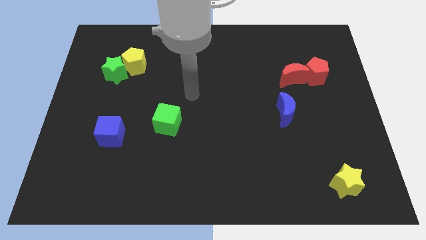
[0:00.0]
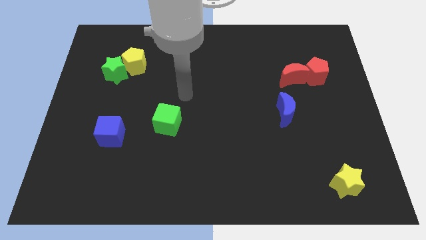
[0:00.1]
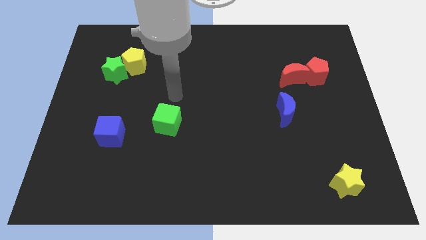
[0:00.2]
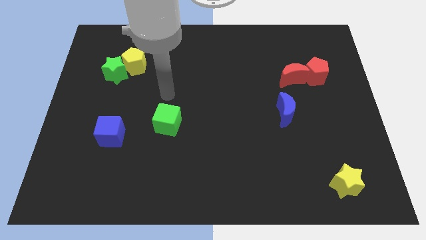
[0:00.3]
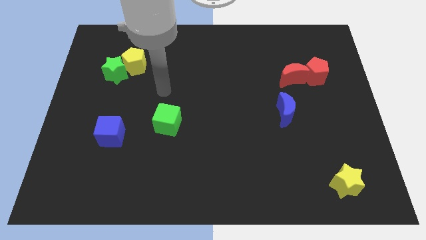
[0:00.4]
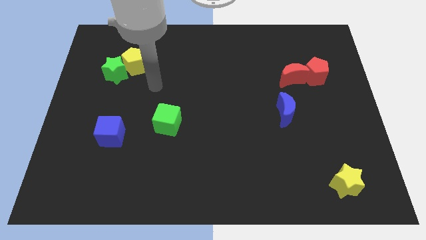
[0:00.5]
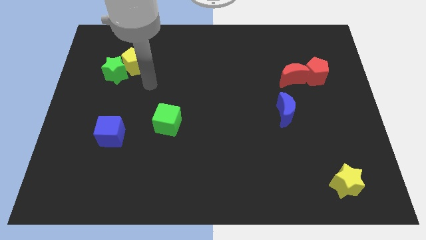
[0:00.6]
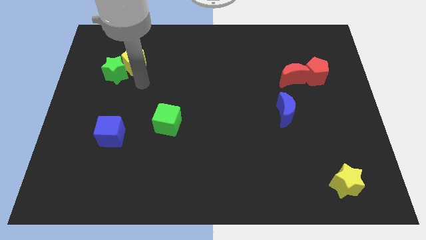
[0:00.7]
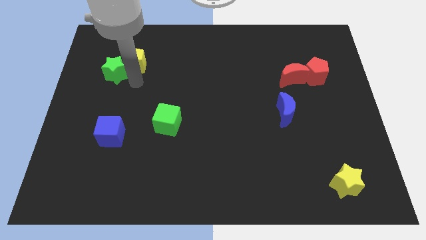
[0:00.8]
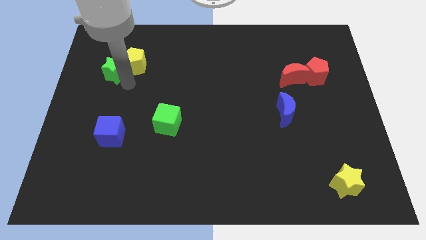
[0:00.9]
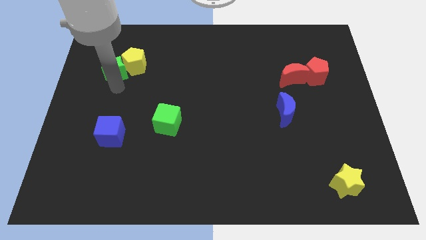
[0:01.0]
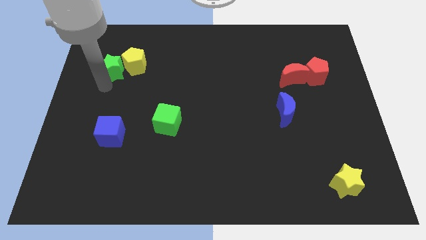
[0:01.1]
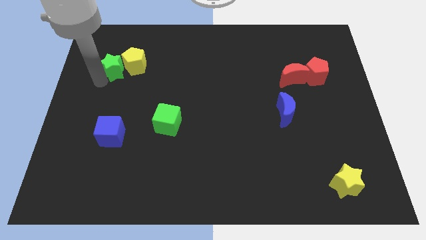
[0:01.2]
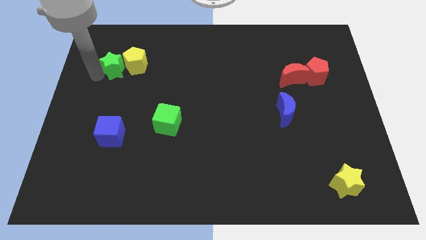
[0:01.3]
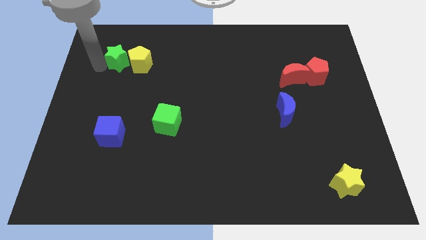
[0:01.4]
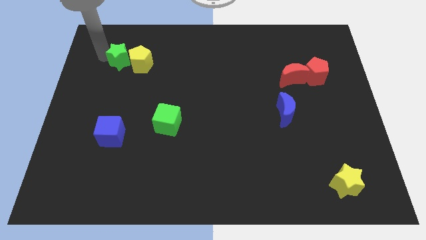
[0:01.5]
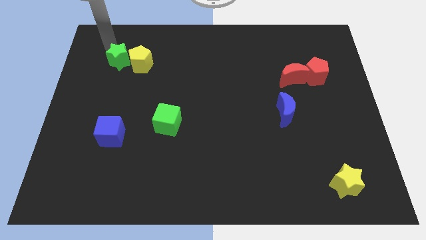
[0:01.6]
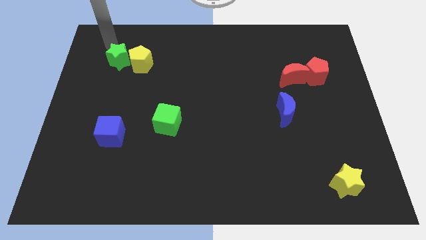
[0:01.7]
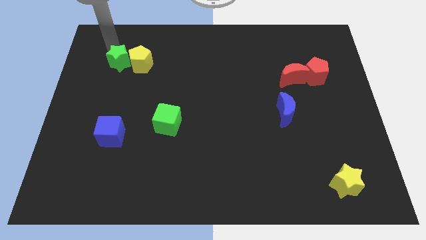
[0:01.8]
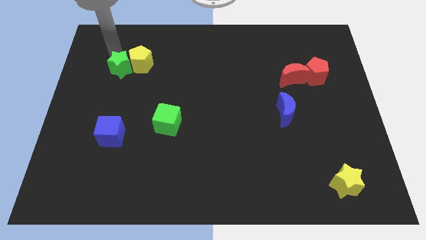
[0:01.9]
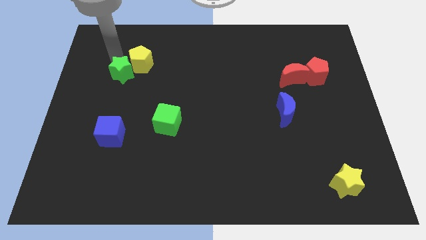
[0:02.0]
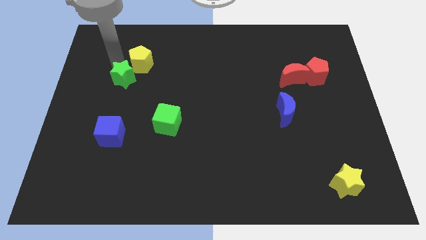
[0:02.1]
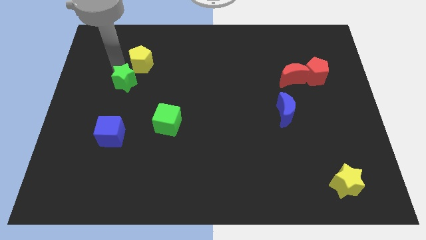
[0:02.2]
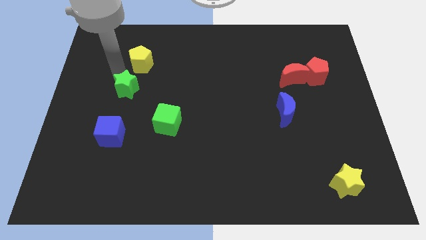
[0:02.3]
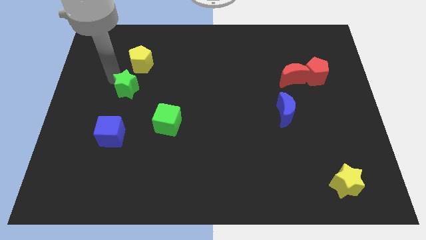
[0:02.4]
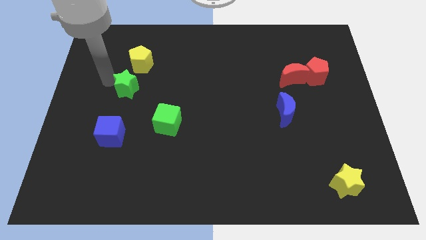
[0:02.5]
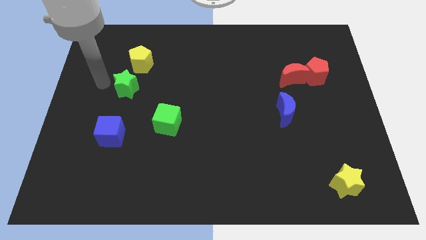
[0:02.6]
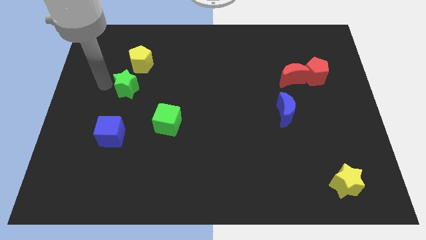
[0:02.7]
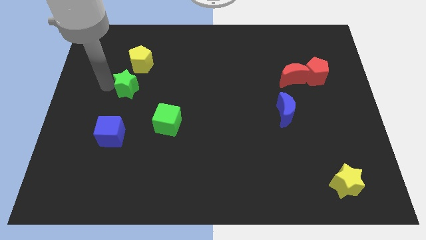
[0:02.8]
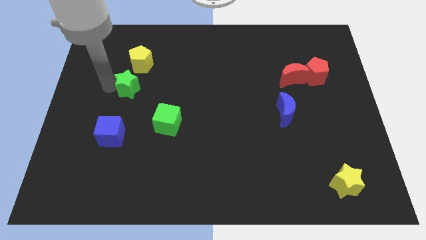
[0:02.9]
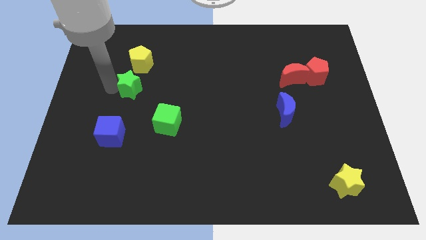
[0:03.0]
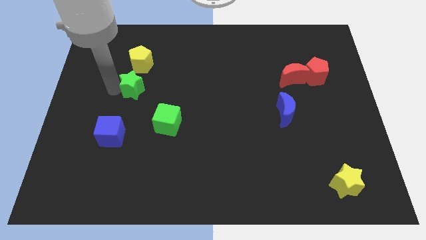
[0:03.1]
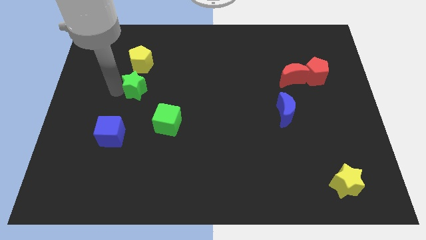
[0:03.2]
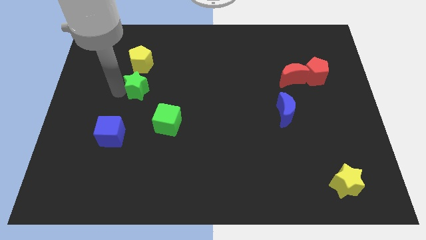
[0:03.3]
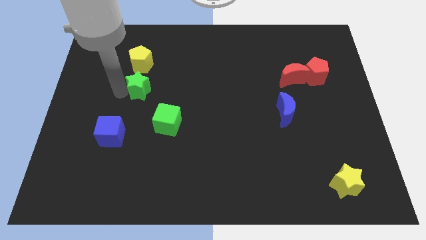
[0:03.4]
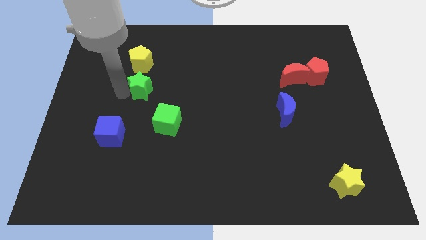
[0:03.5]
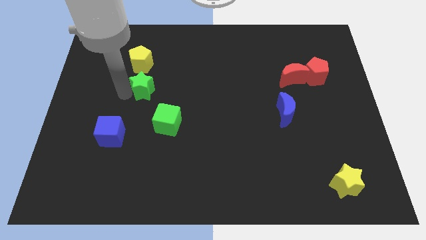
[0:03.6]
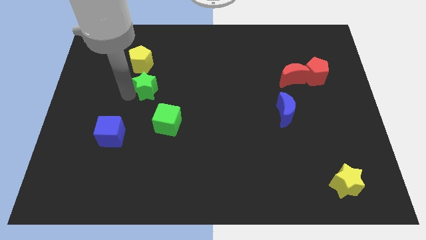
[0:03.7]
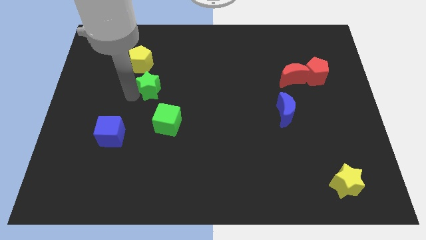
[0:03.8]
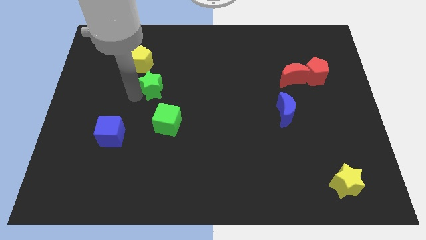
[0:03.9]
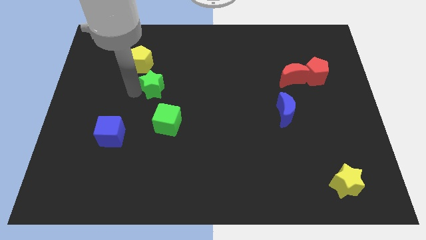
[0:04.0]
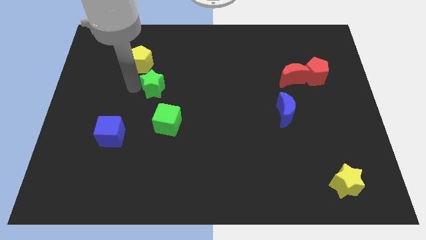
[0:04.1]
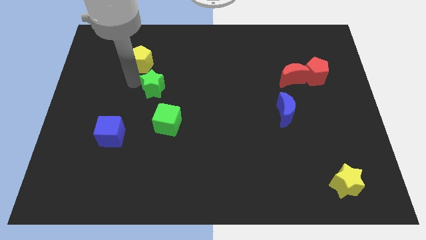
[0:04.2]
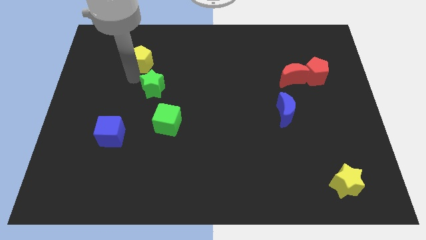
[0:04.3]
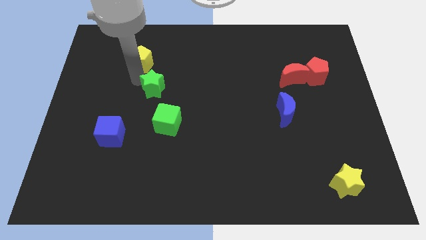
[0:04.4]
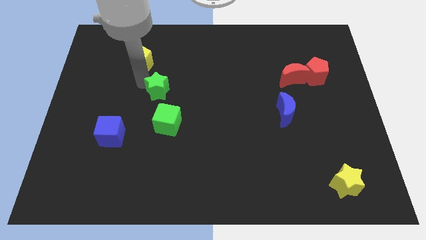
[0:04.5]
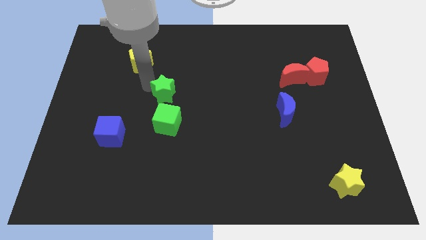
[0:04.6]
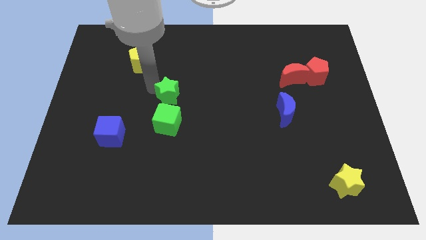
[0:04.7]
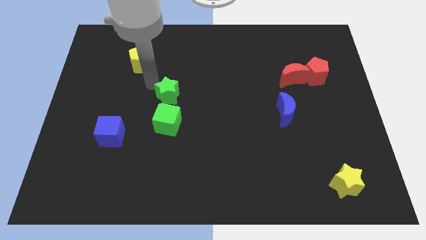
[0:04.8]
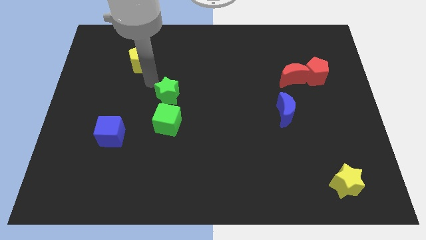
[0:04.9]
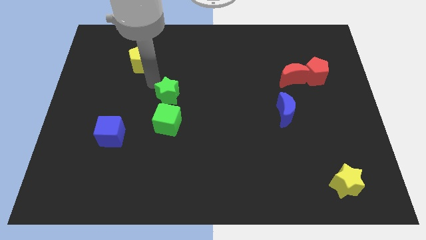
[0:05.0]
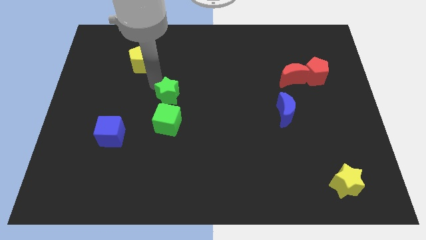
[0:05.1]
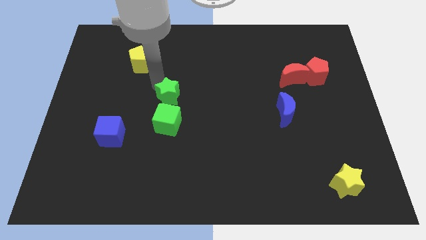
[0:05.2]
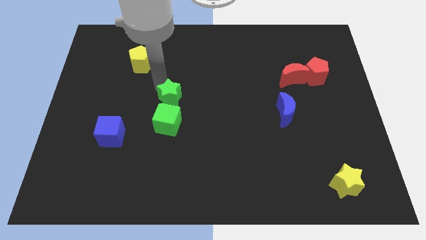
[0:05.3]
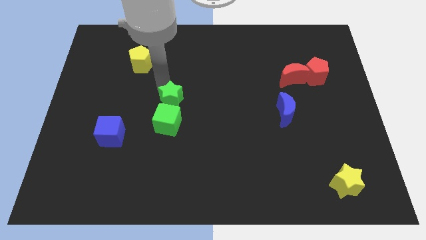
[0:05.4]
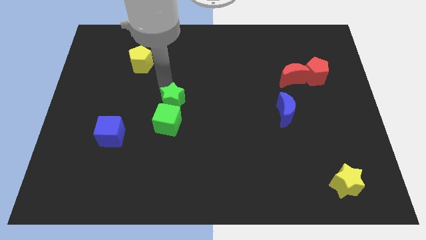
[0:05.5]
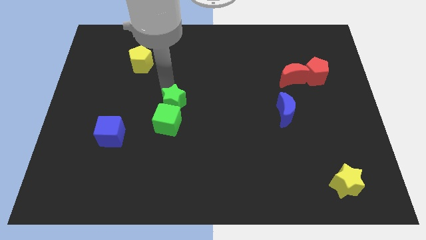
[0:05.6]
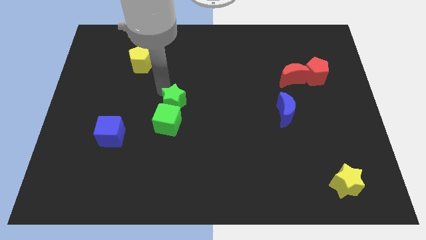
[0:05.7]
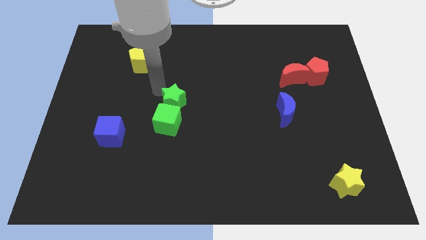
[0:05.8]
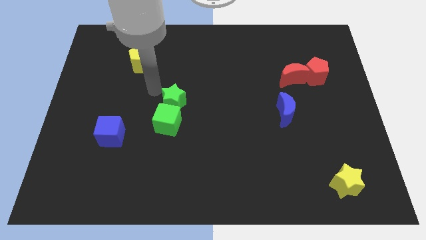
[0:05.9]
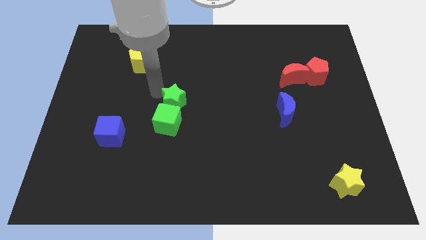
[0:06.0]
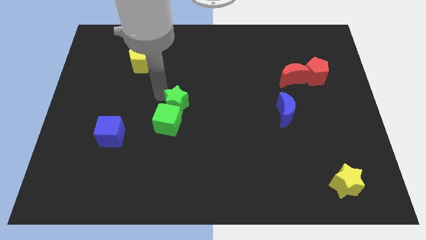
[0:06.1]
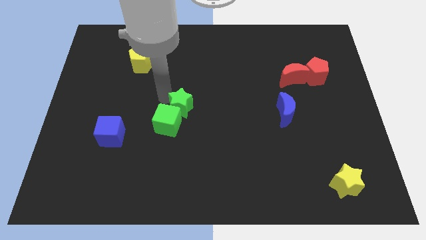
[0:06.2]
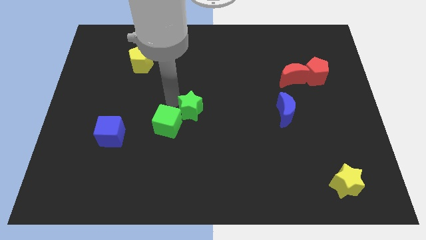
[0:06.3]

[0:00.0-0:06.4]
slide the green star down and right diagonally

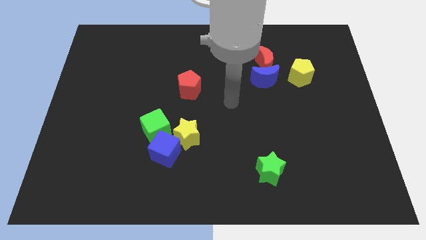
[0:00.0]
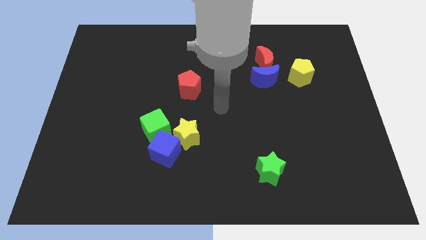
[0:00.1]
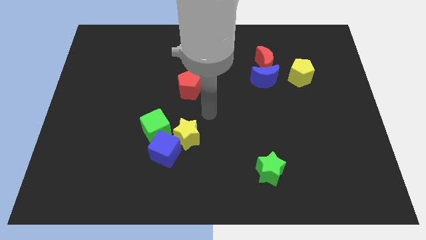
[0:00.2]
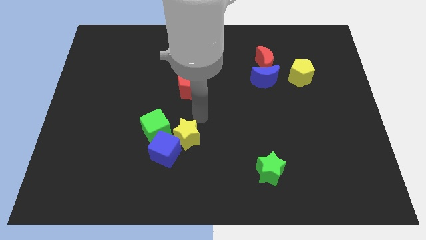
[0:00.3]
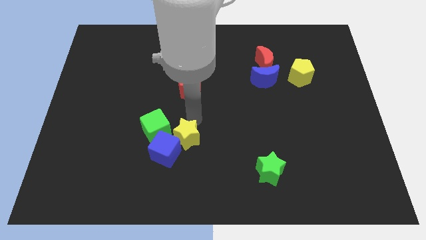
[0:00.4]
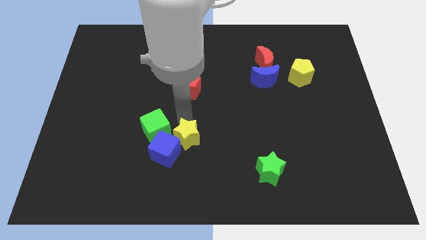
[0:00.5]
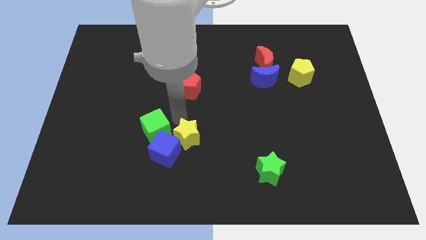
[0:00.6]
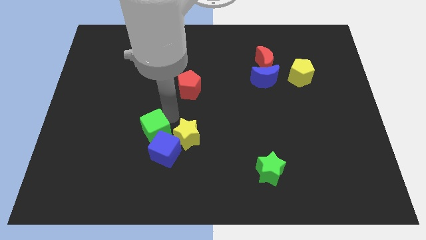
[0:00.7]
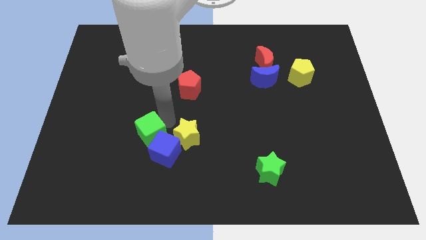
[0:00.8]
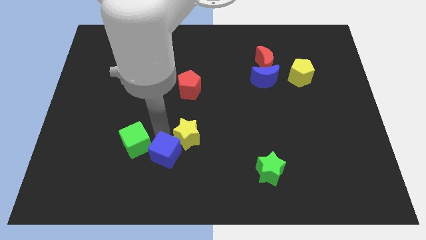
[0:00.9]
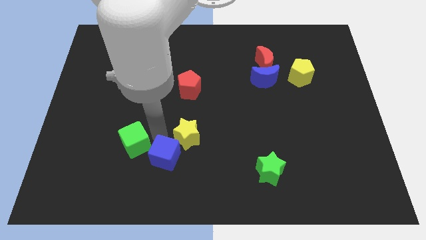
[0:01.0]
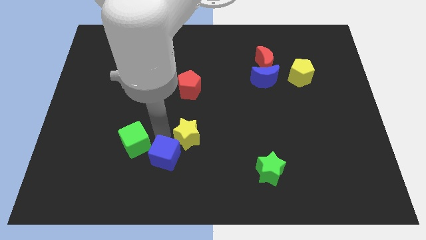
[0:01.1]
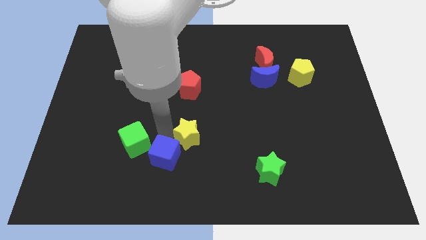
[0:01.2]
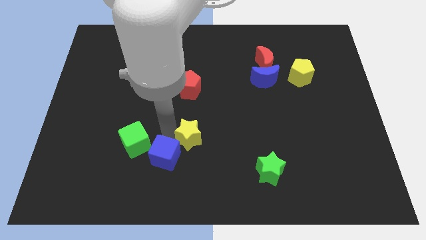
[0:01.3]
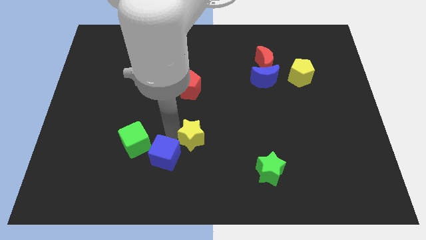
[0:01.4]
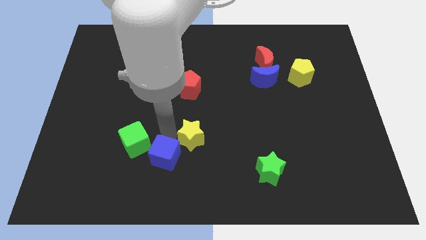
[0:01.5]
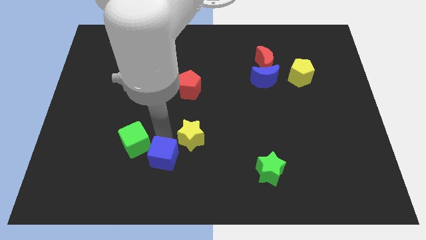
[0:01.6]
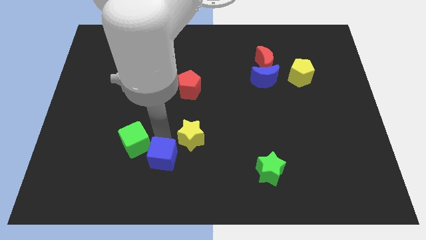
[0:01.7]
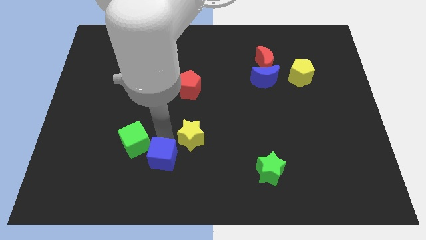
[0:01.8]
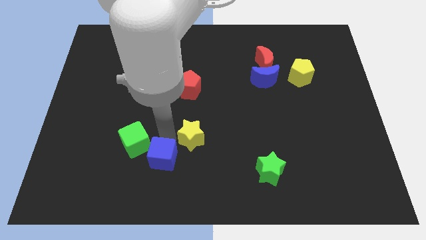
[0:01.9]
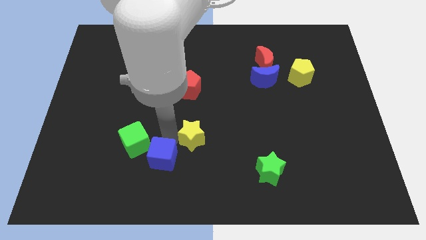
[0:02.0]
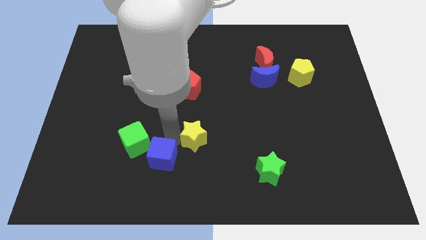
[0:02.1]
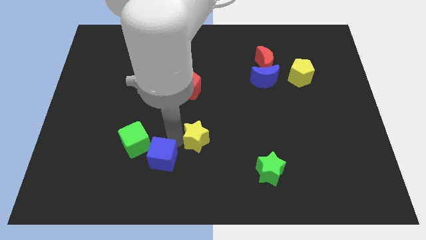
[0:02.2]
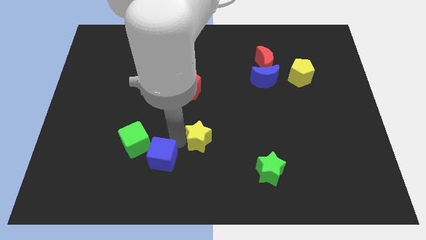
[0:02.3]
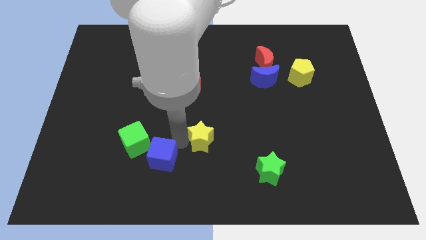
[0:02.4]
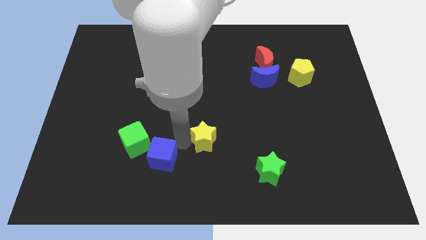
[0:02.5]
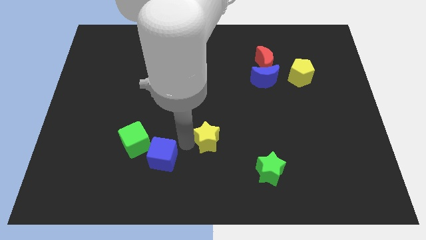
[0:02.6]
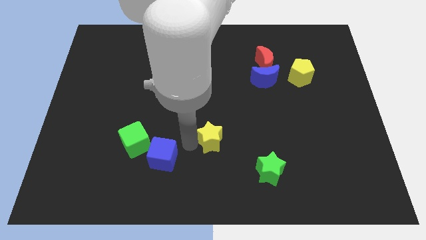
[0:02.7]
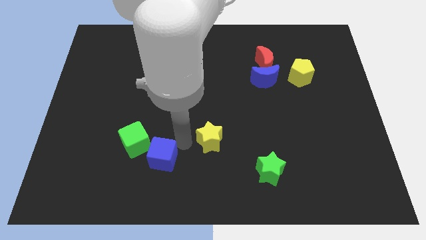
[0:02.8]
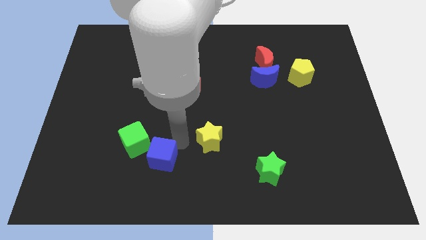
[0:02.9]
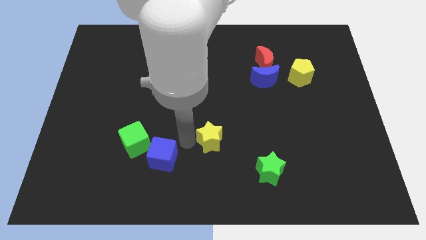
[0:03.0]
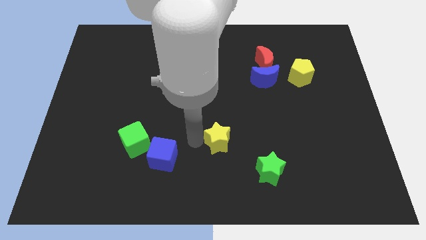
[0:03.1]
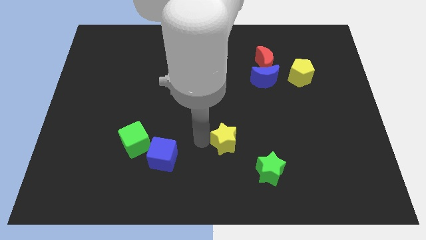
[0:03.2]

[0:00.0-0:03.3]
push the yellow star right slightly
